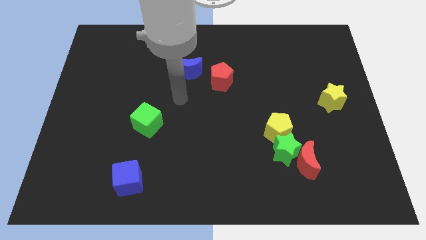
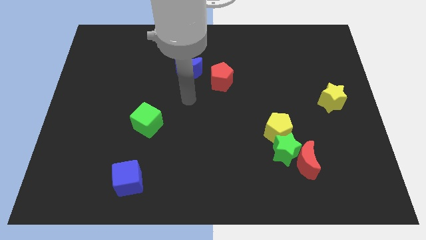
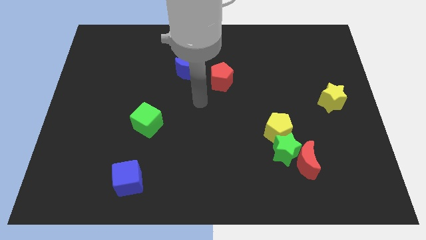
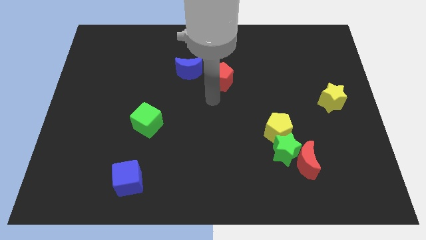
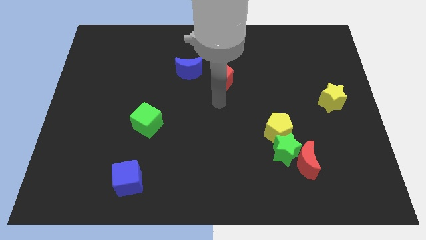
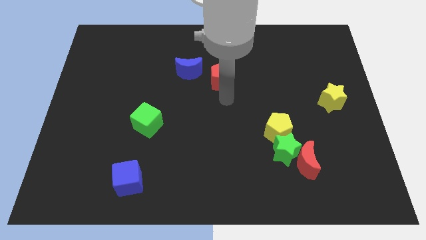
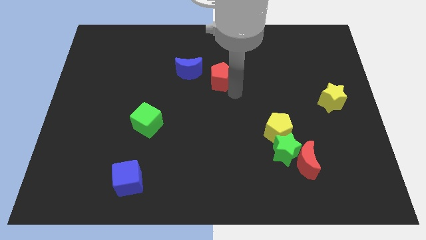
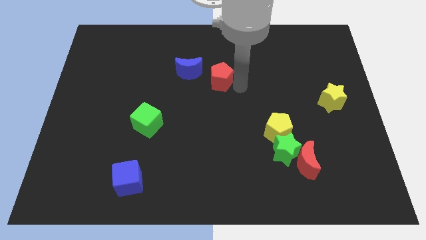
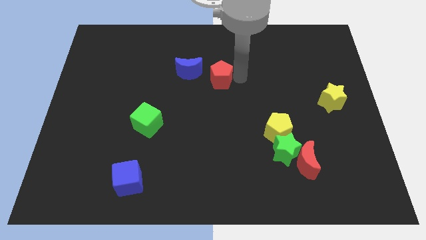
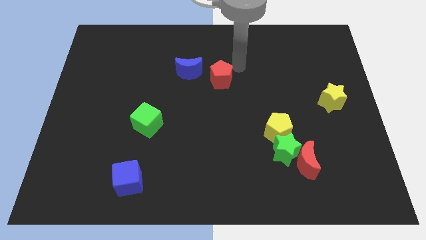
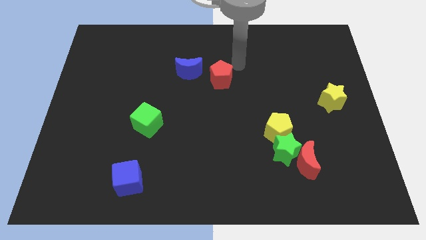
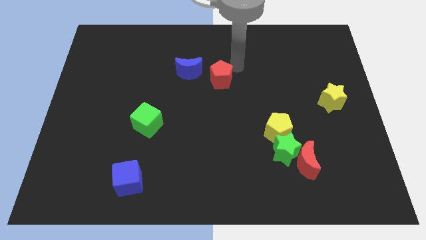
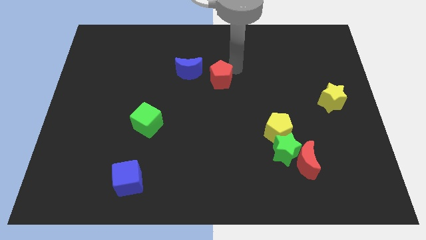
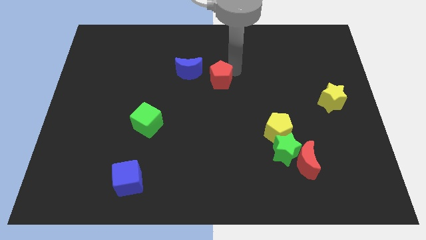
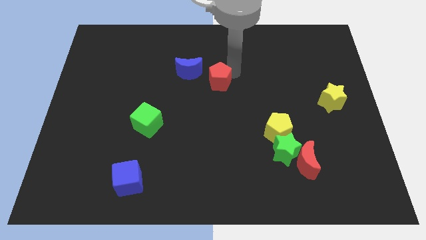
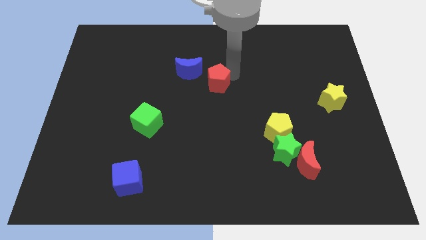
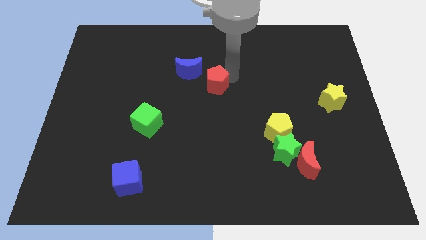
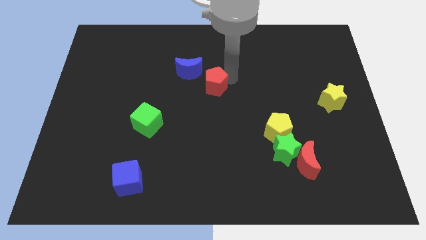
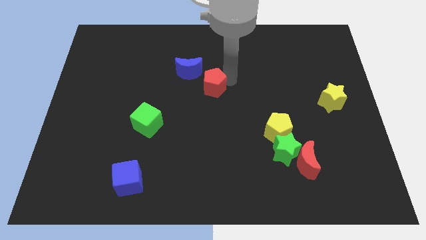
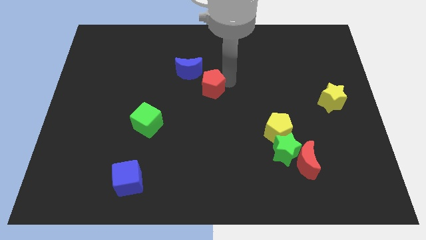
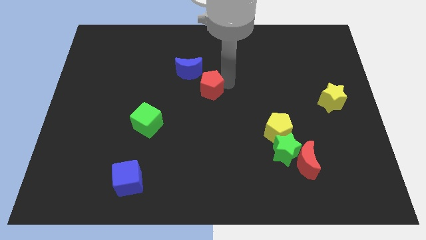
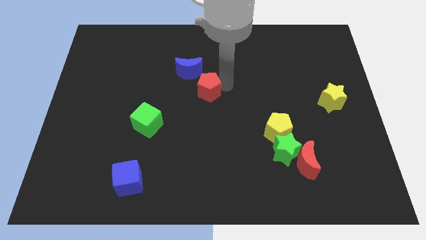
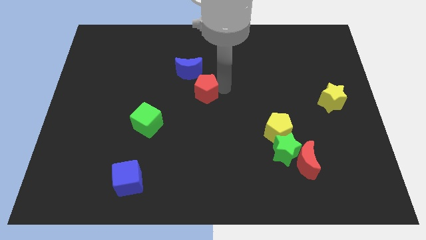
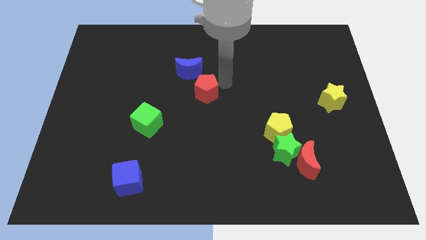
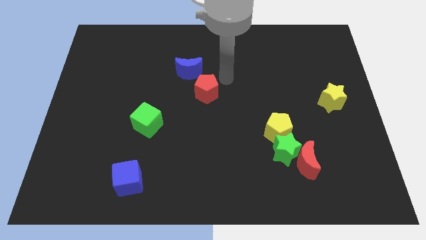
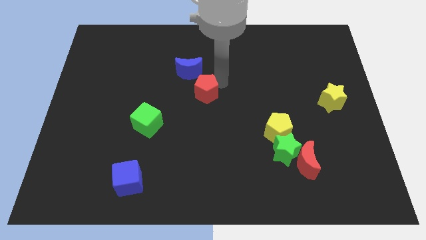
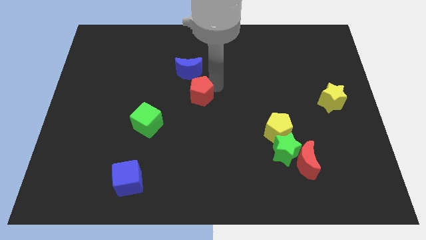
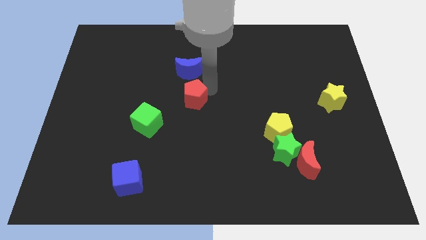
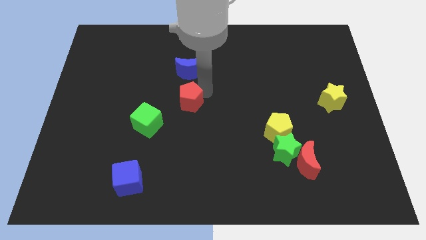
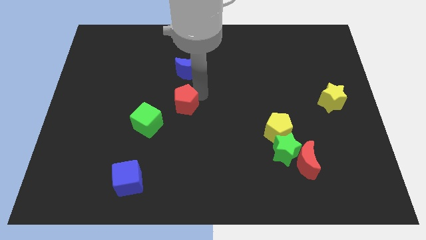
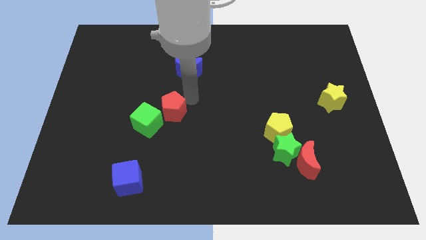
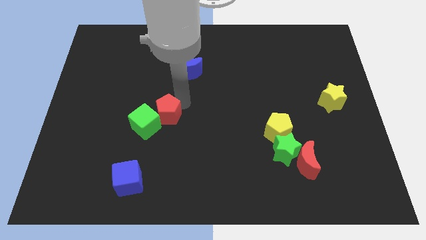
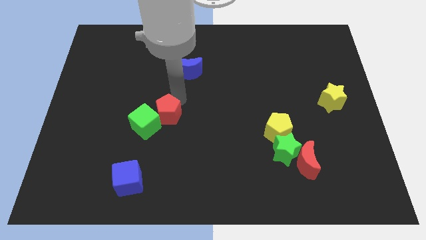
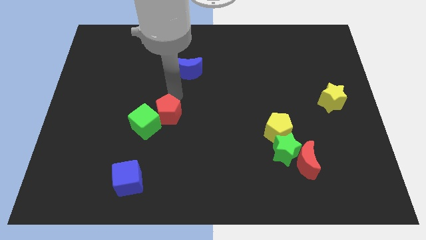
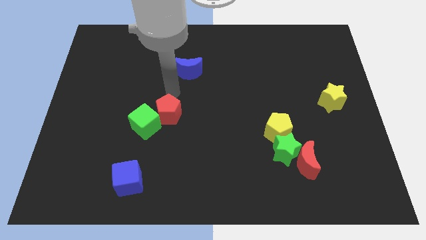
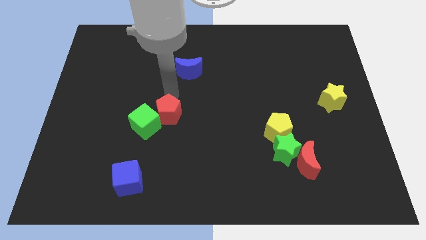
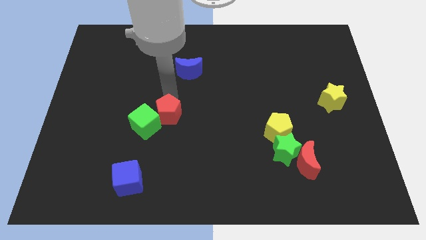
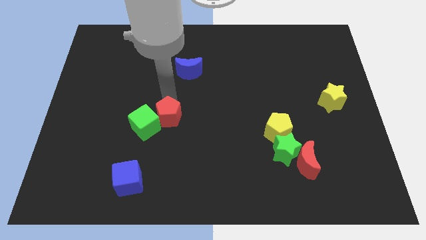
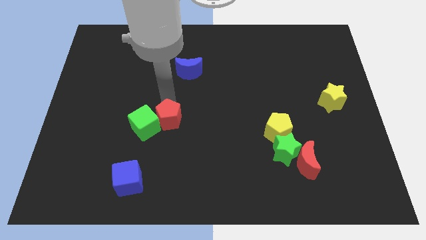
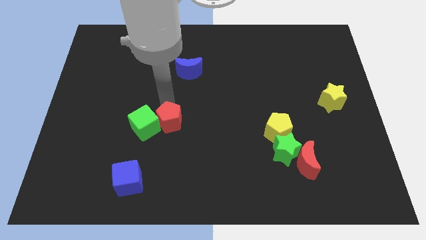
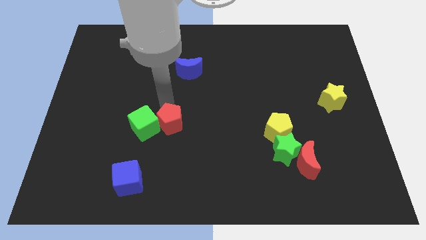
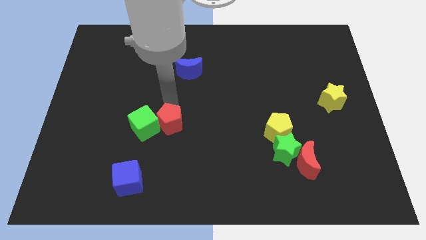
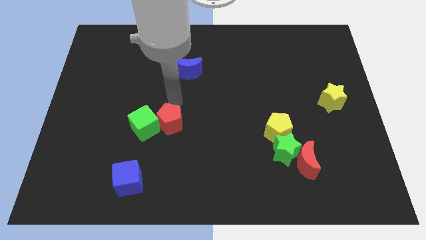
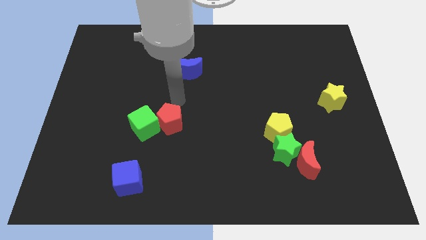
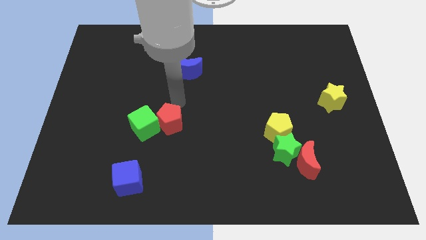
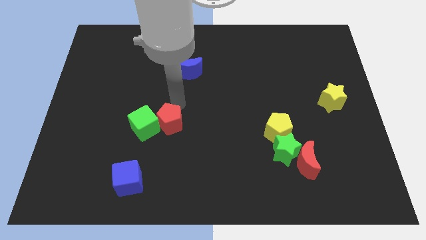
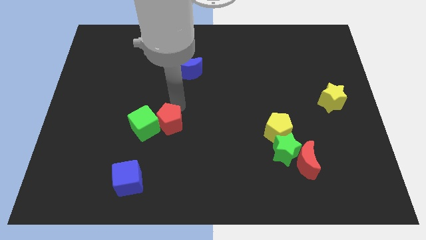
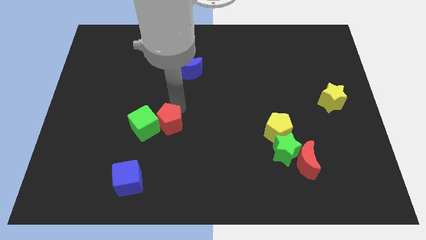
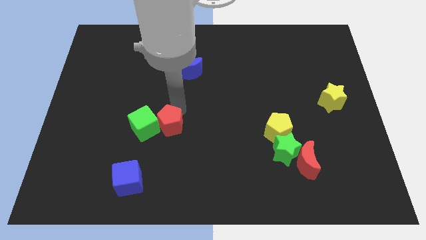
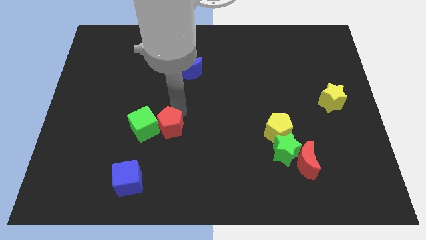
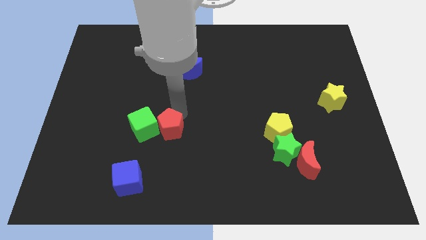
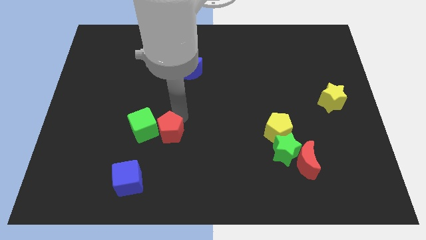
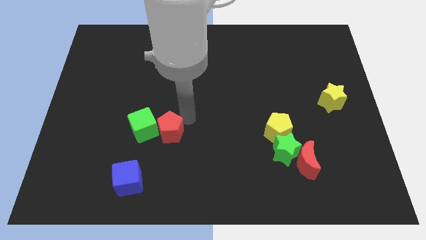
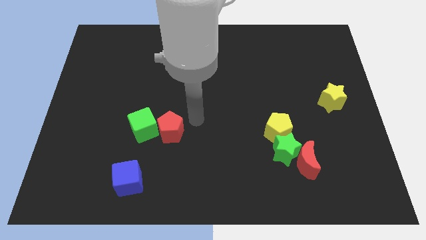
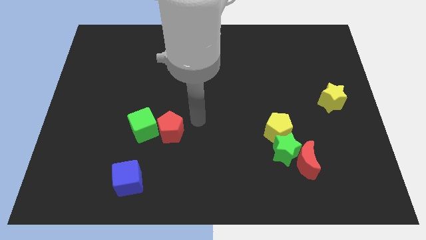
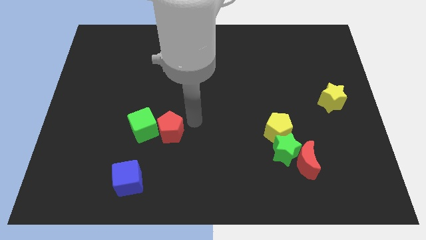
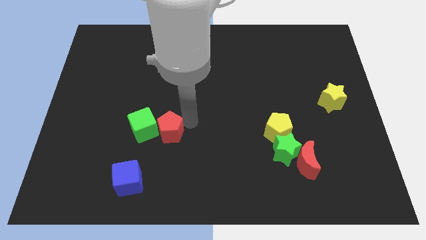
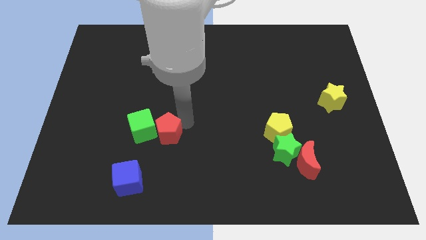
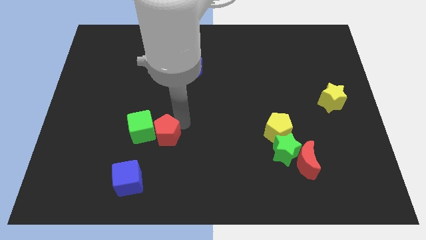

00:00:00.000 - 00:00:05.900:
push the red pentagon downwards and left

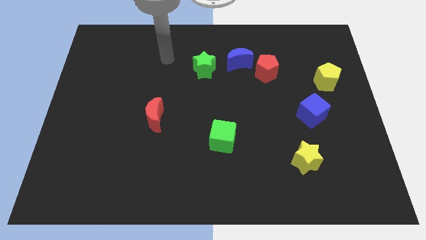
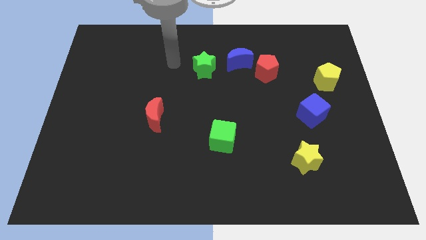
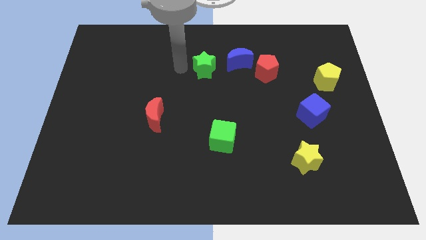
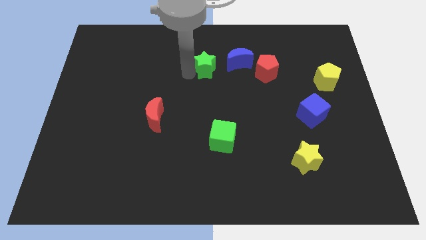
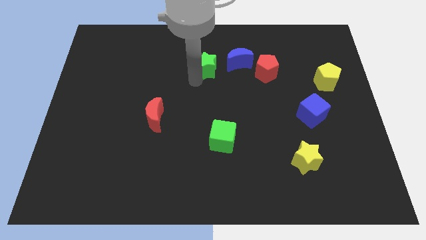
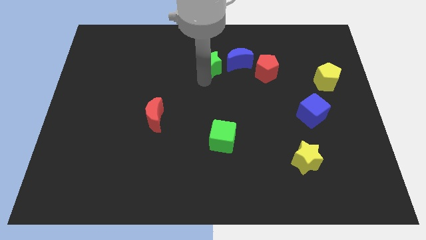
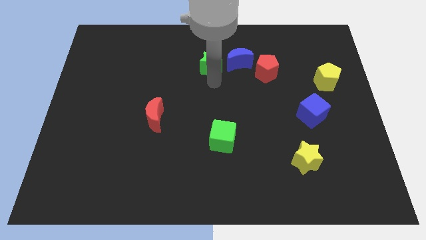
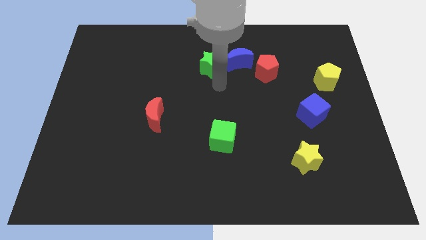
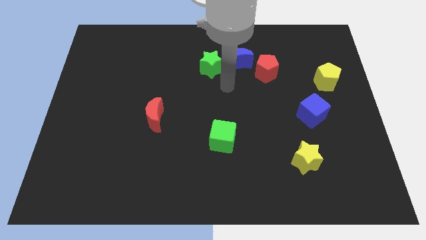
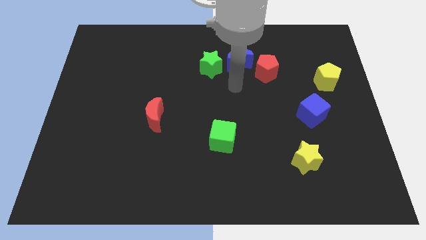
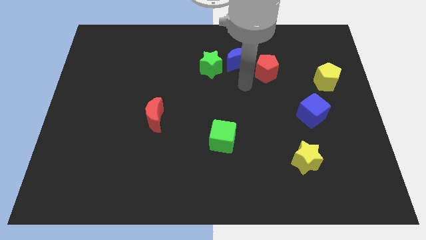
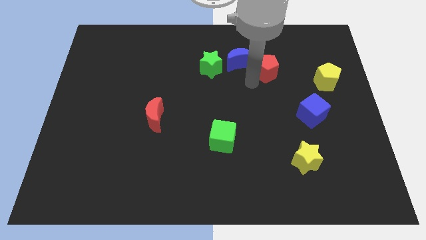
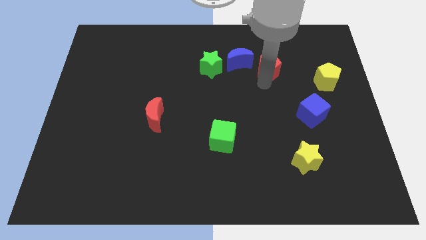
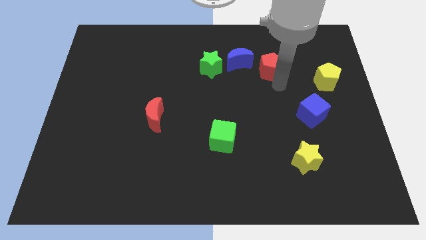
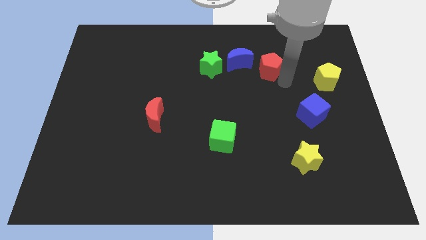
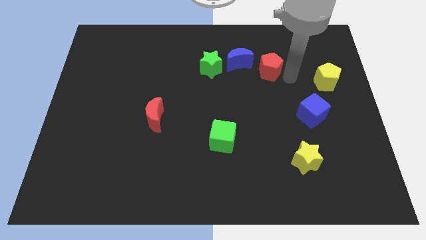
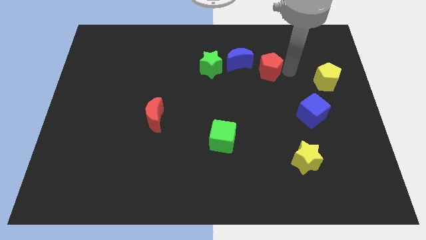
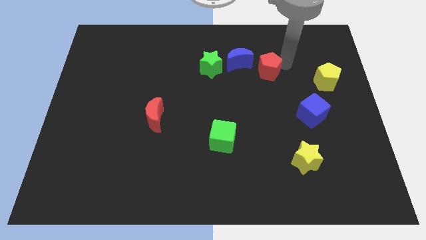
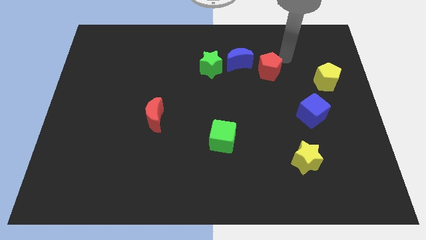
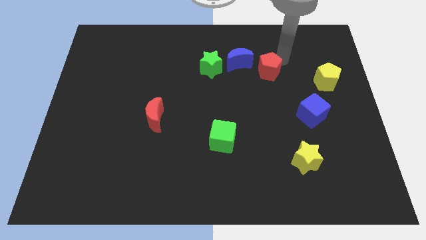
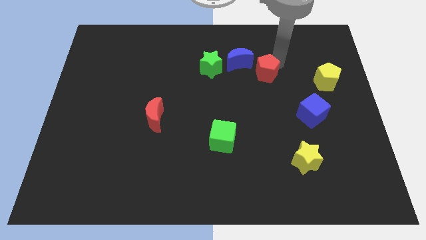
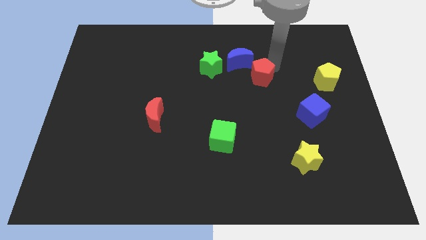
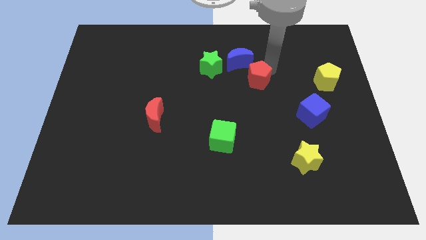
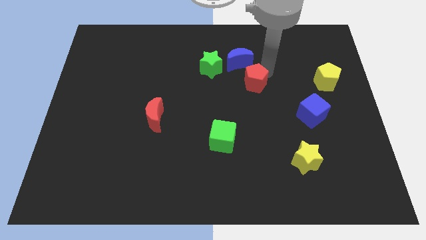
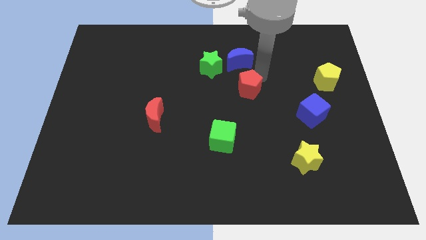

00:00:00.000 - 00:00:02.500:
push the red pentagon a bit downwards and left
